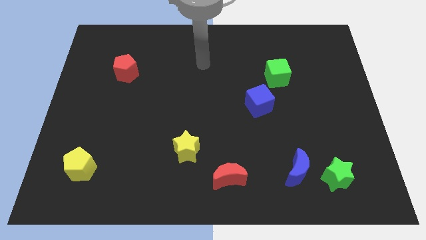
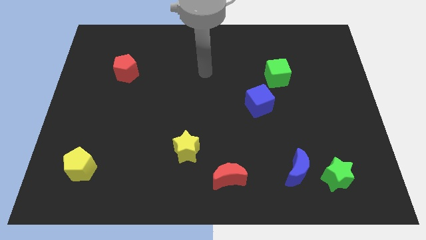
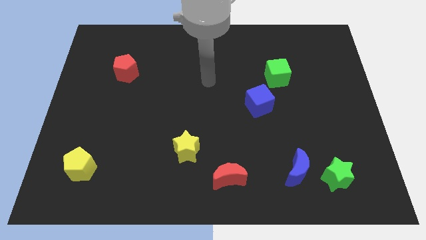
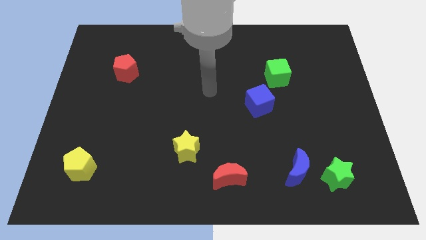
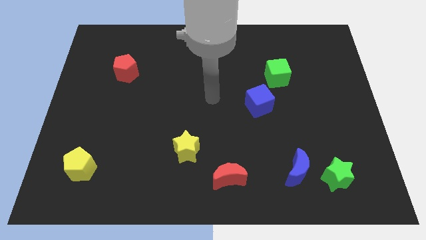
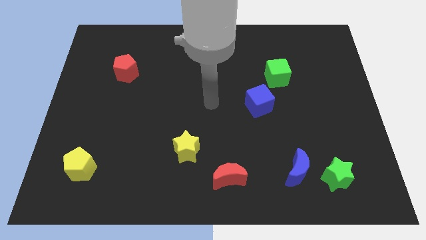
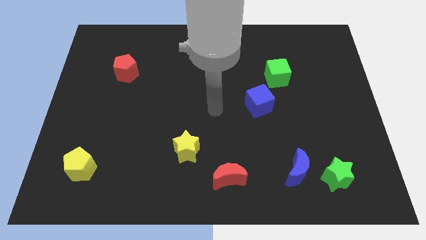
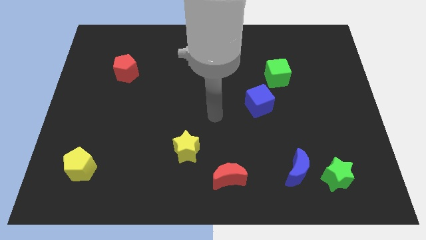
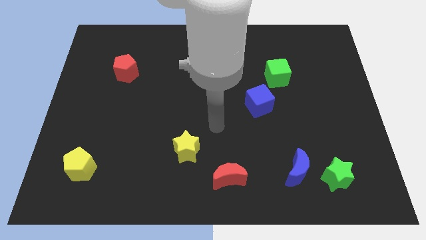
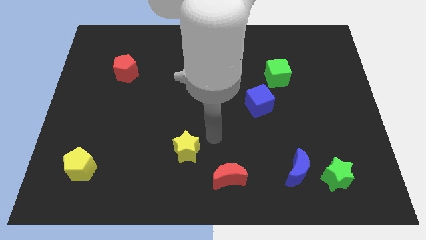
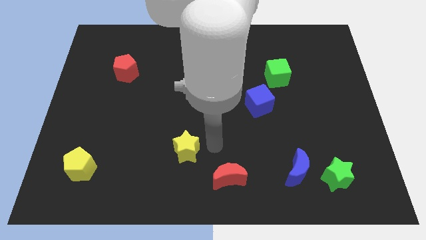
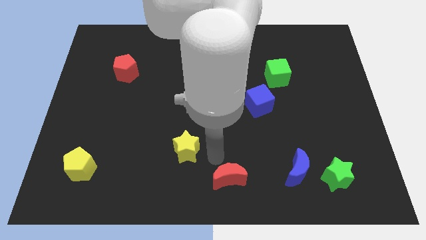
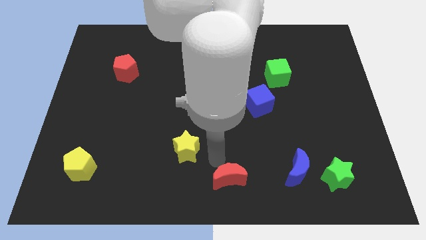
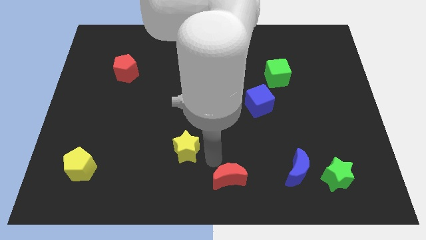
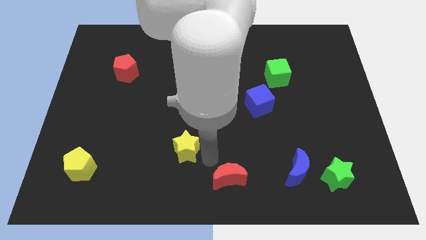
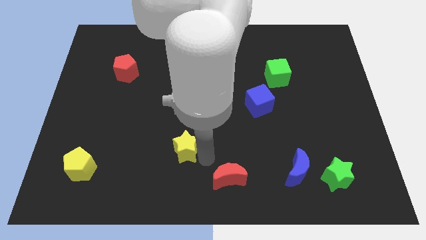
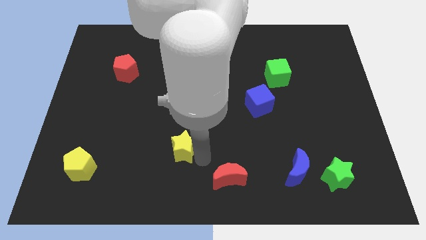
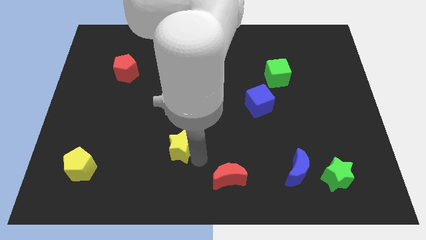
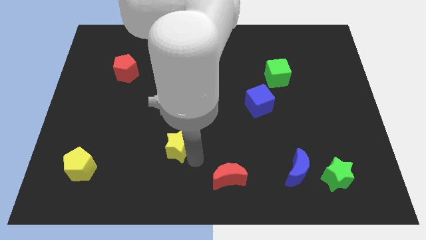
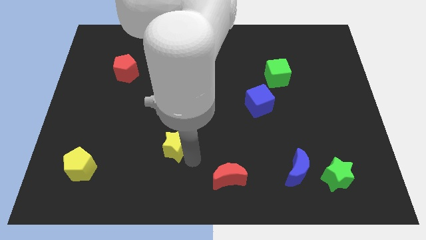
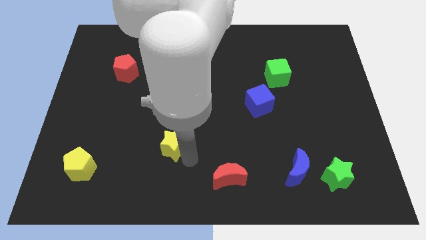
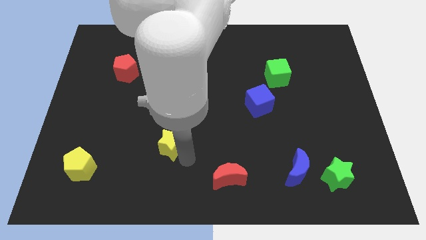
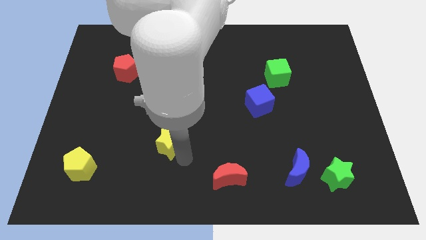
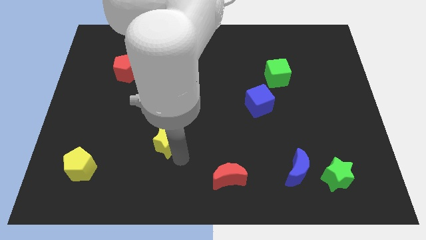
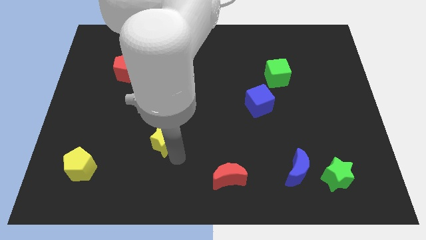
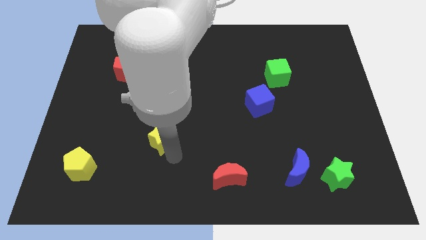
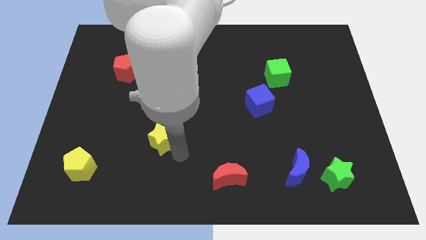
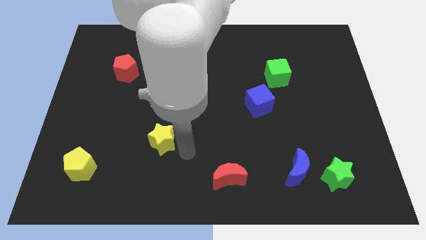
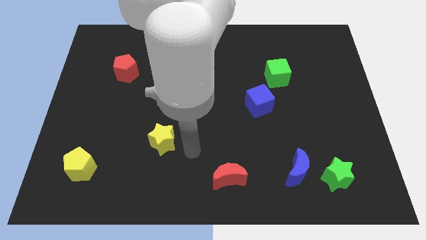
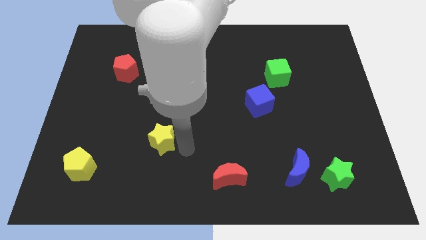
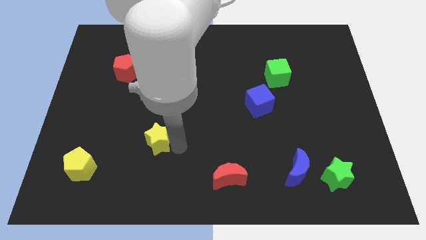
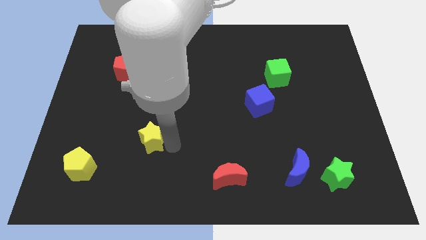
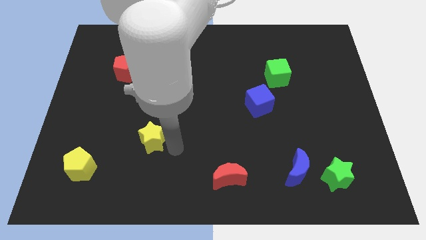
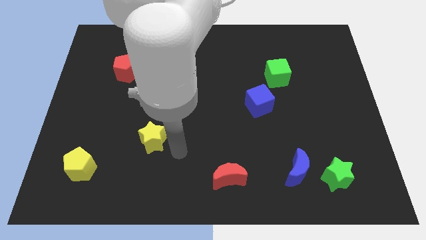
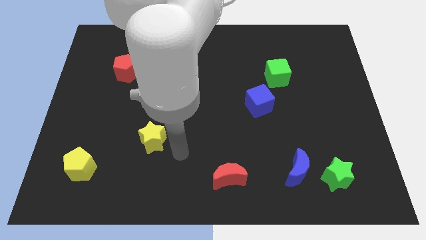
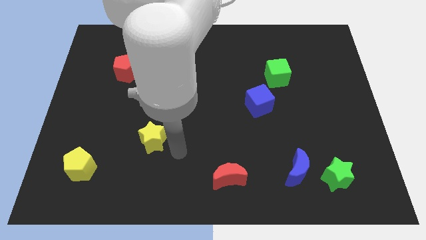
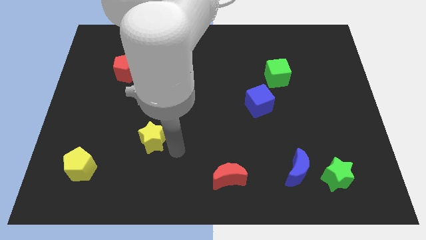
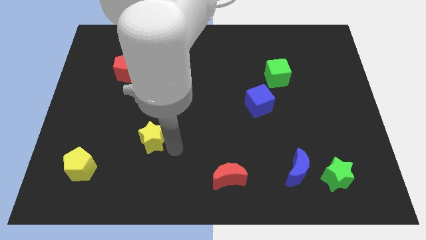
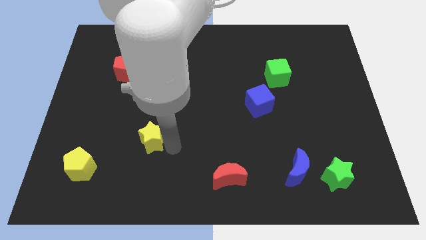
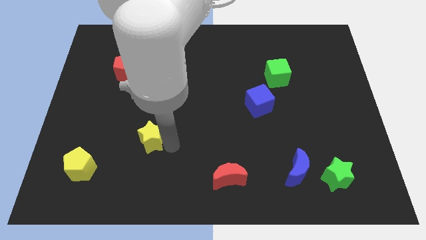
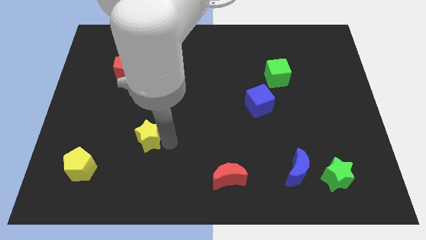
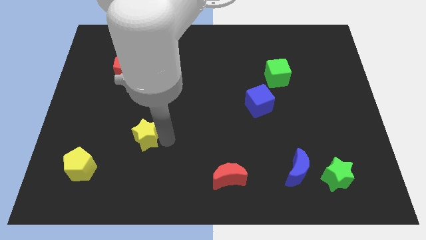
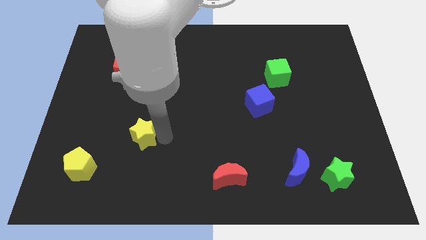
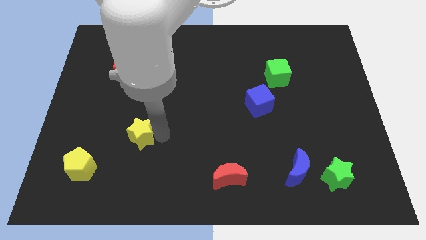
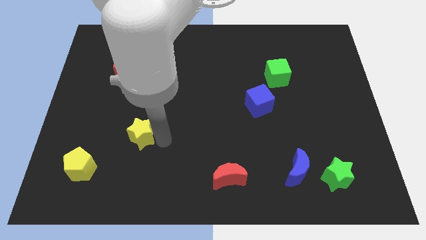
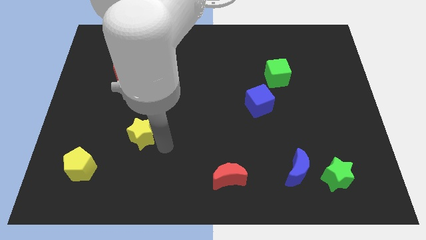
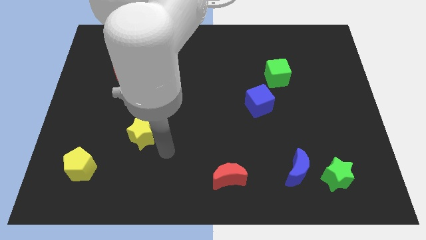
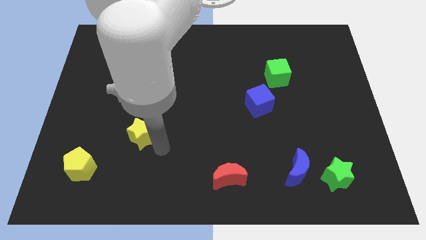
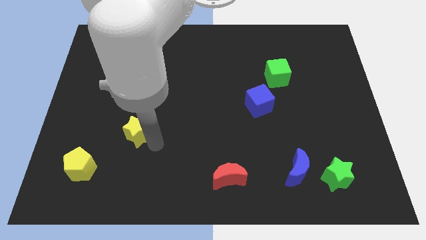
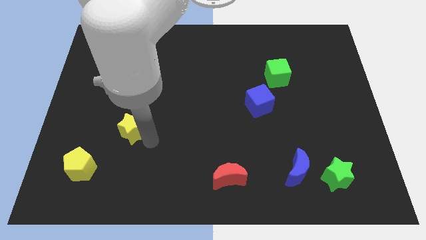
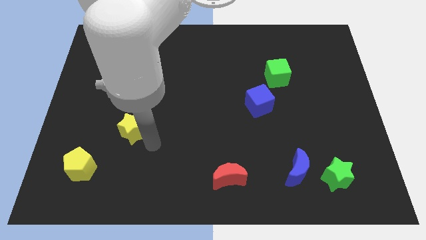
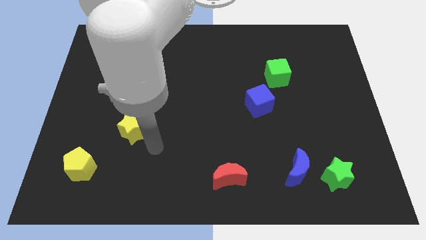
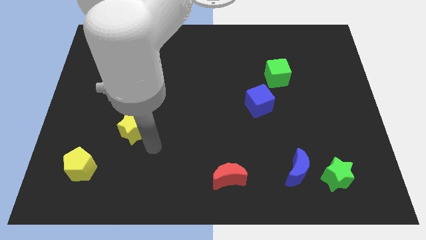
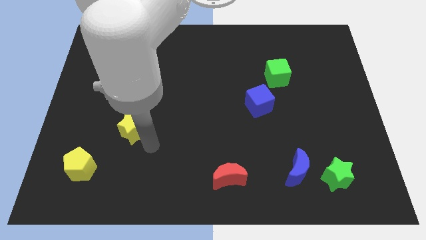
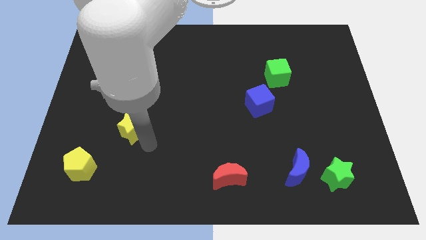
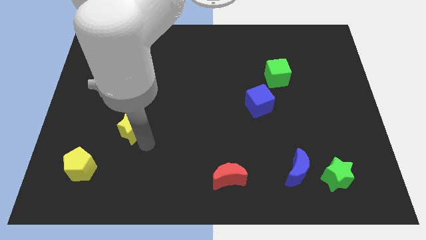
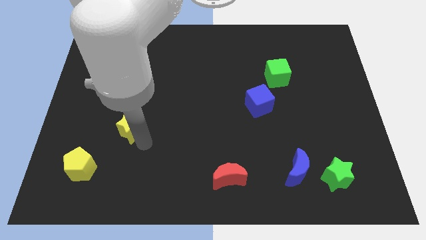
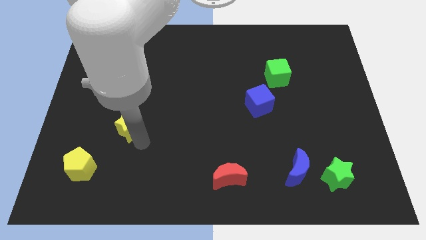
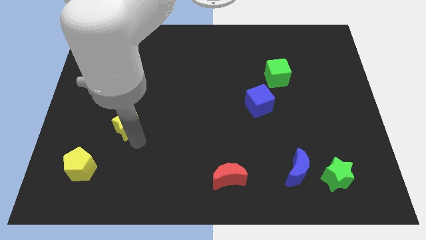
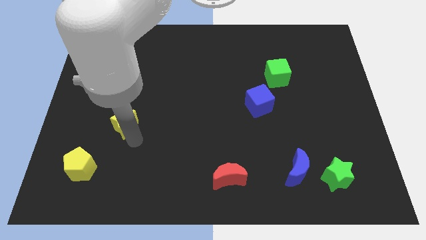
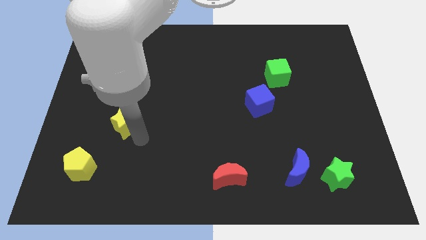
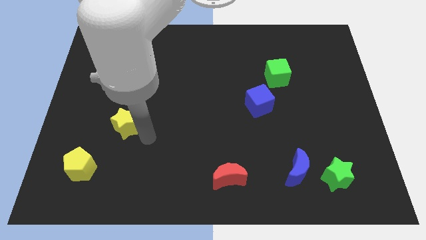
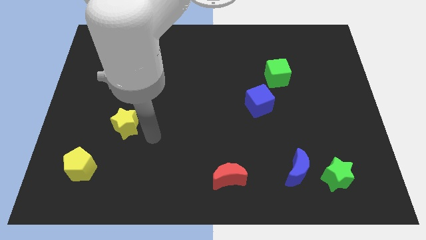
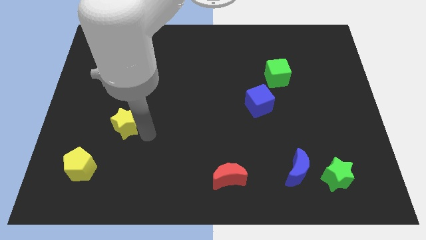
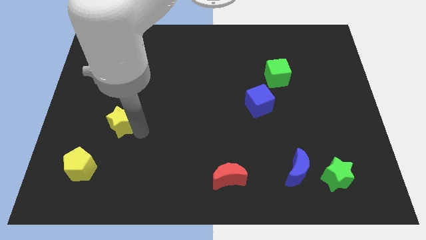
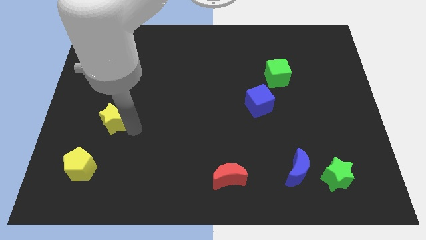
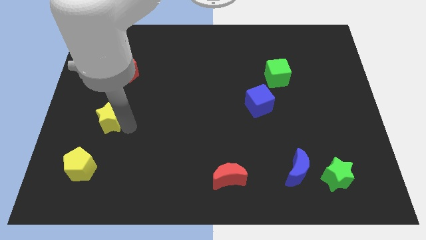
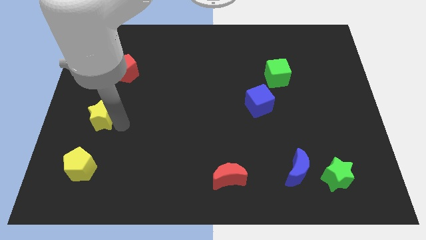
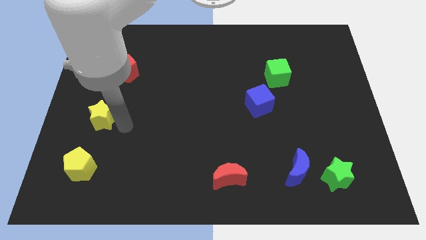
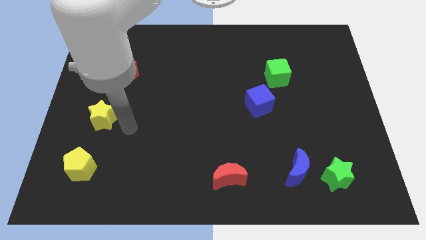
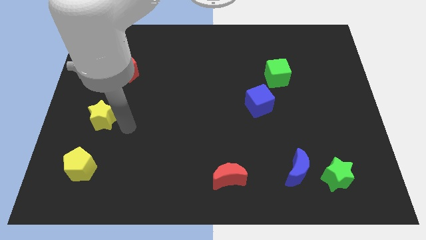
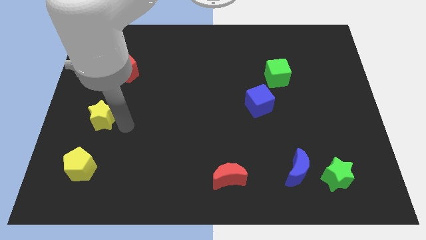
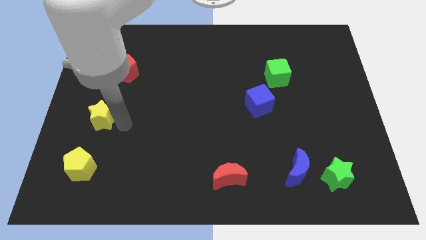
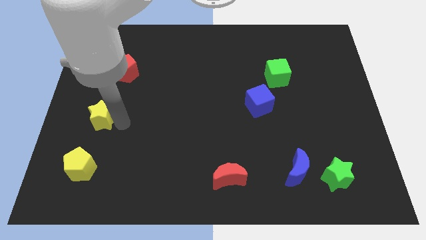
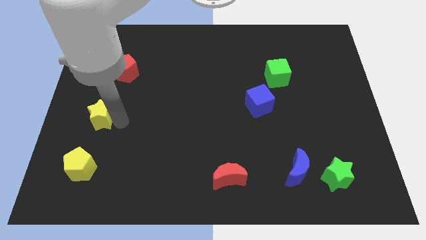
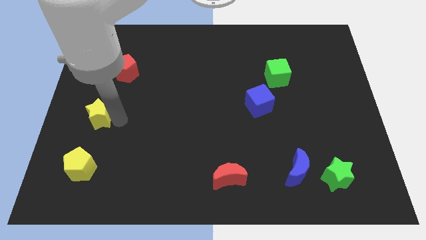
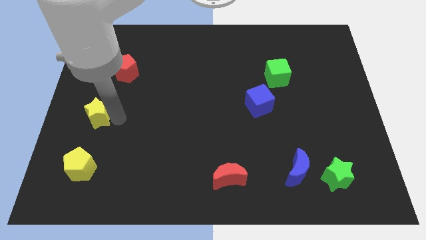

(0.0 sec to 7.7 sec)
put the yellow star to the left side of the board
